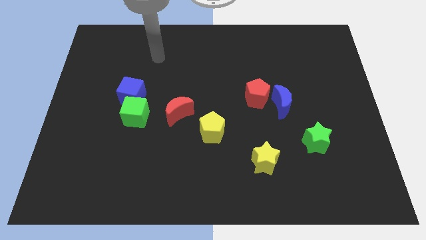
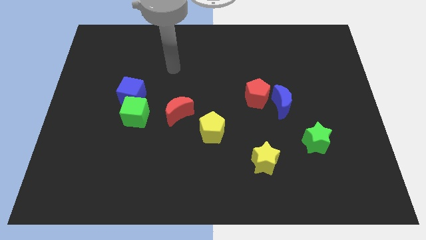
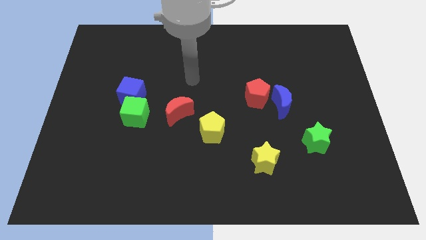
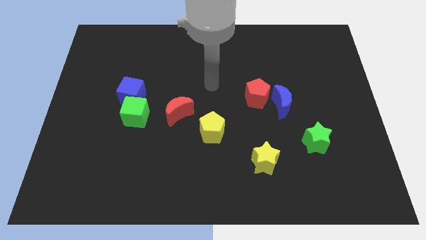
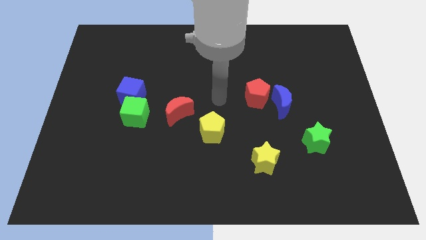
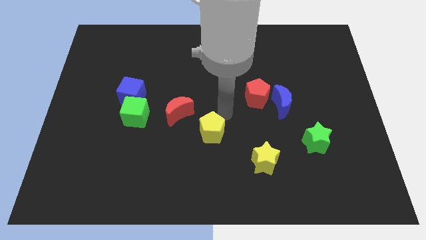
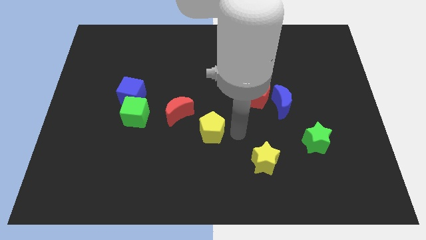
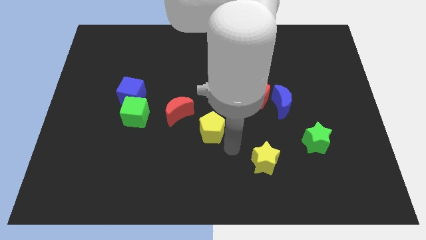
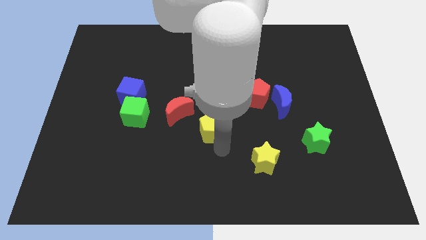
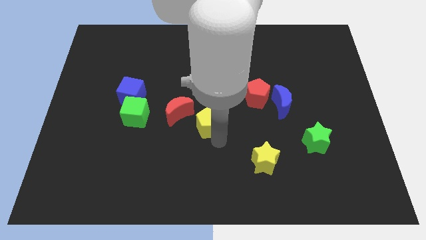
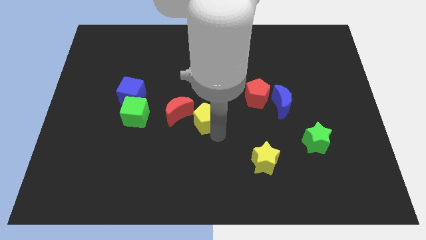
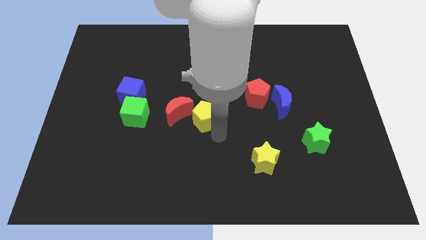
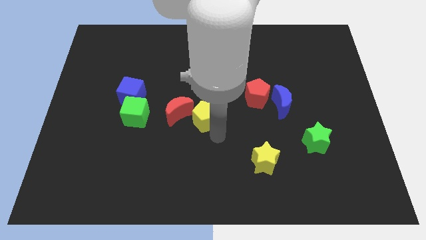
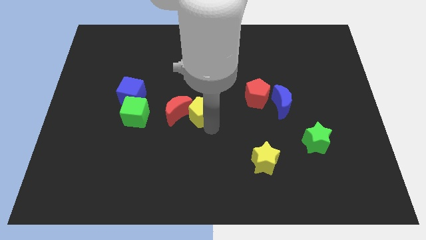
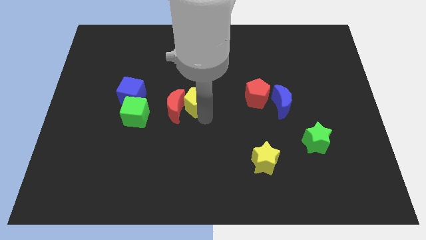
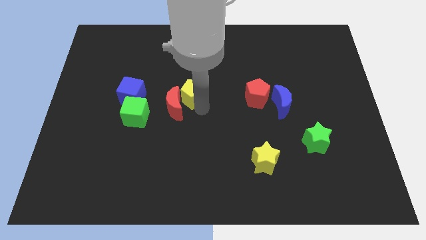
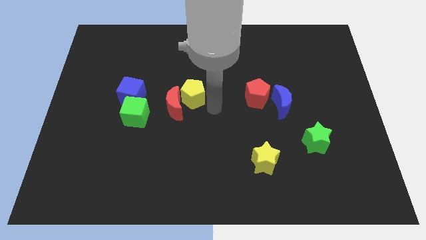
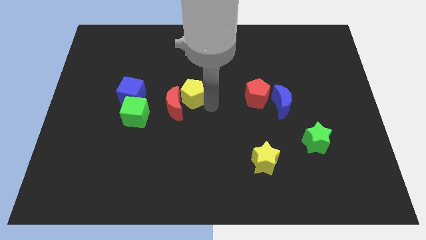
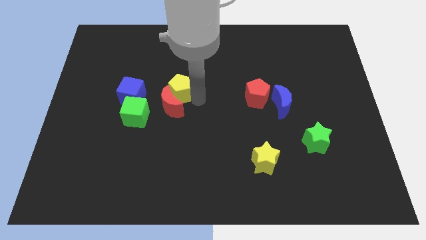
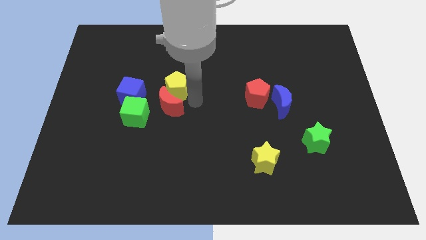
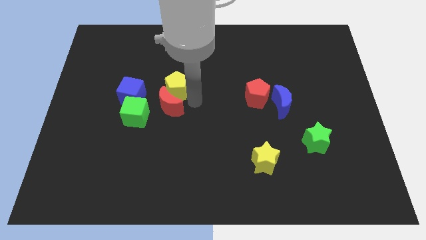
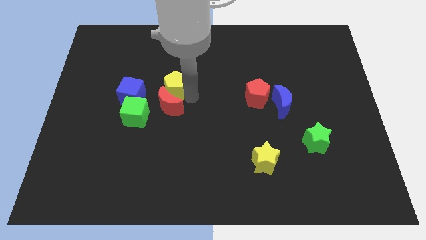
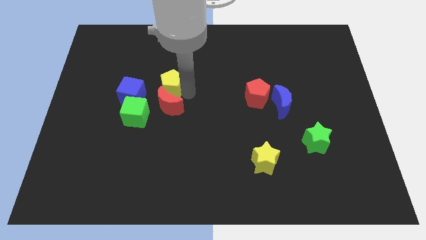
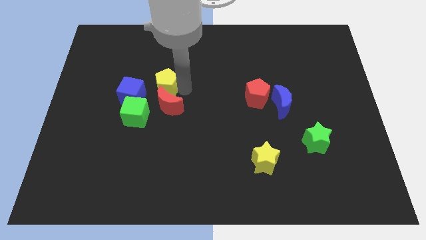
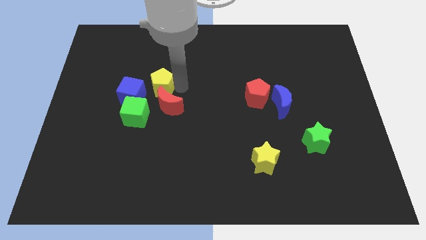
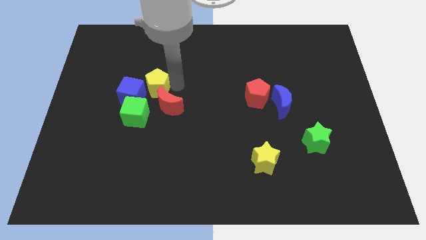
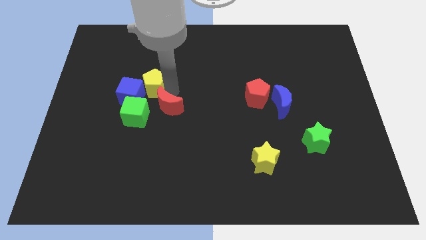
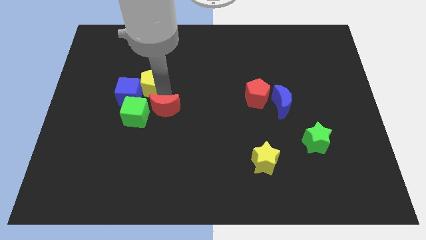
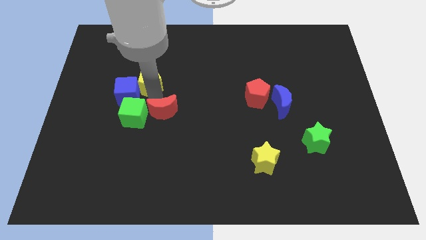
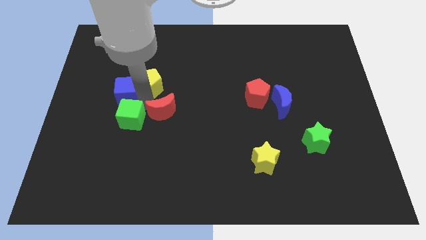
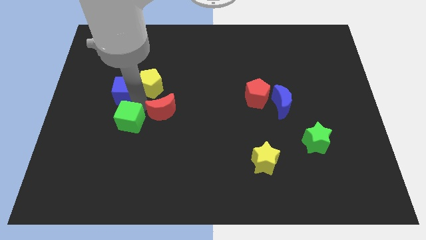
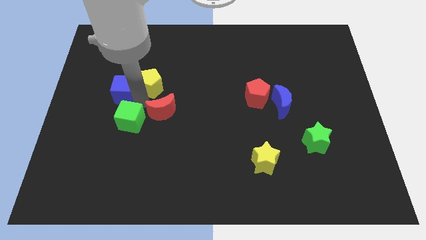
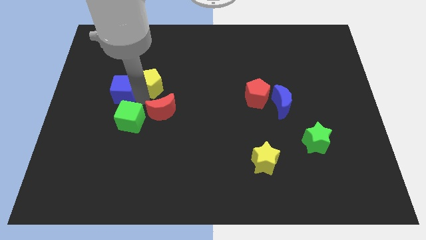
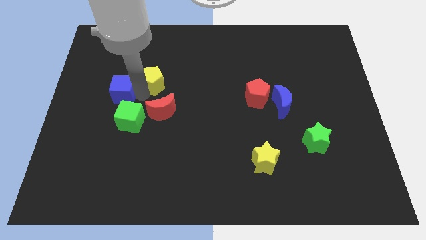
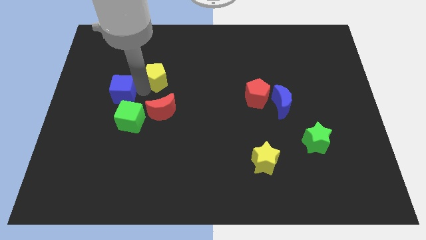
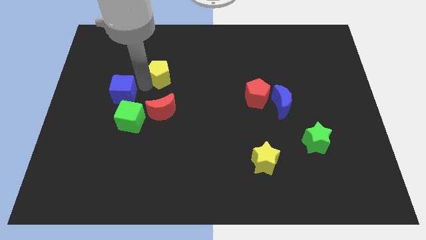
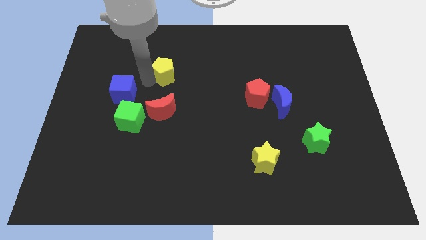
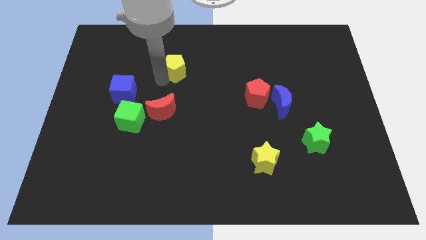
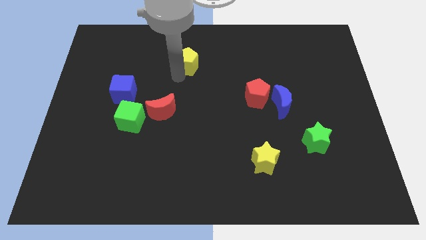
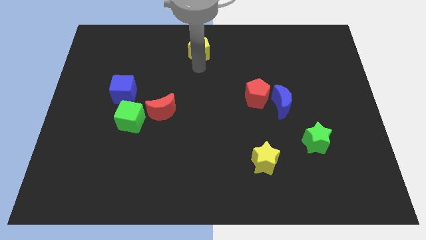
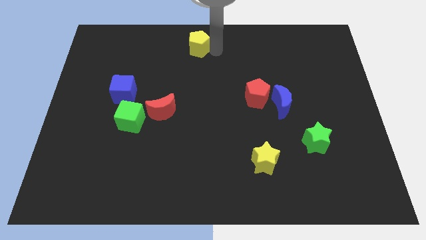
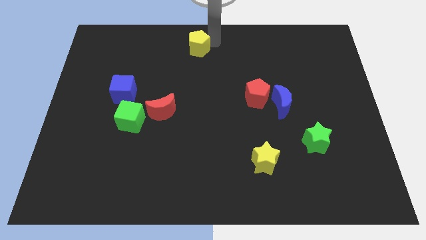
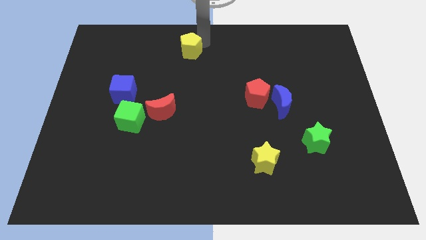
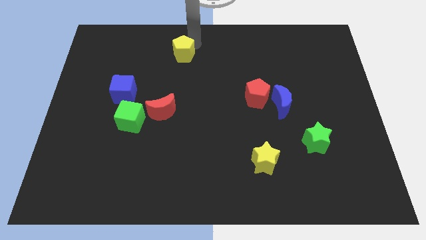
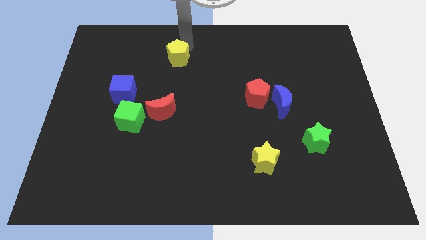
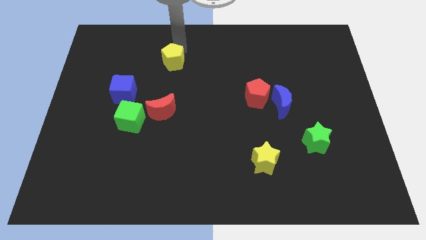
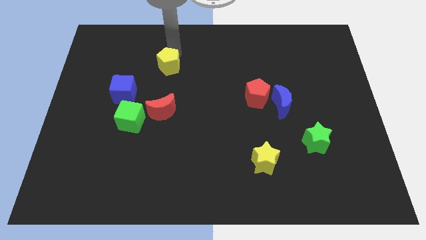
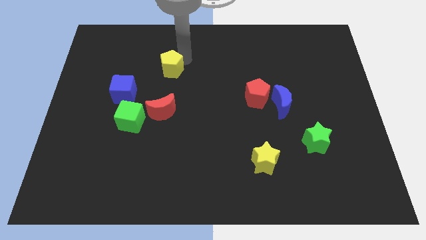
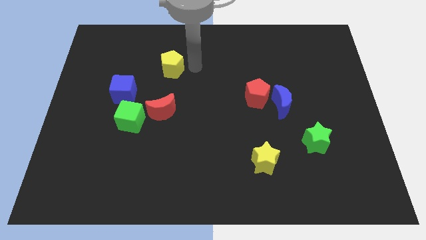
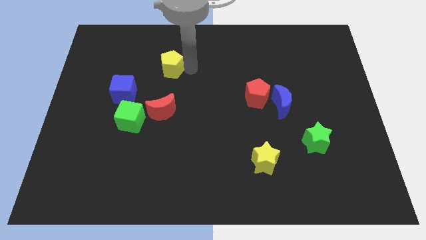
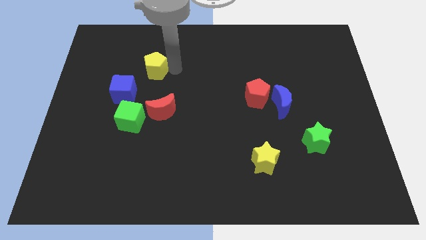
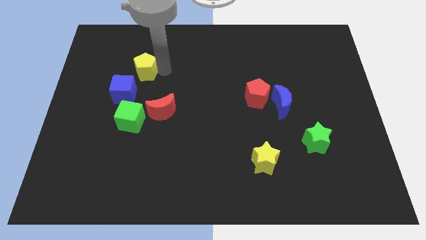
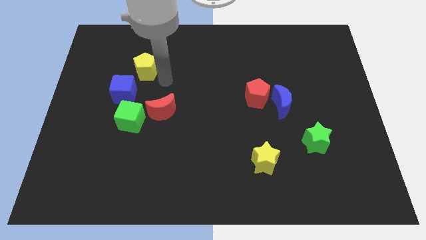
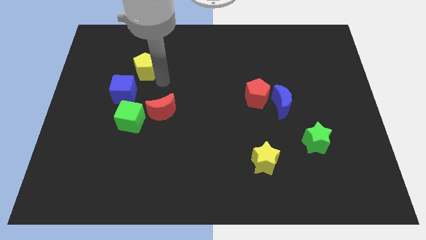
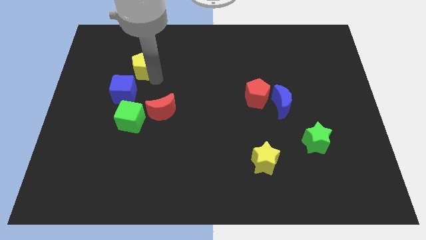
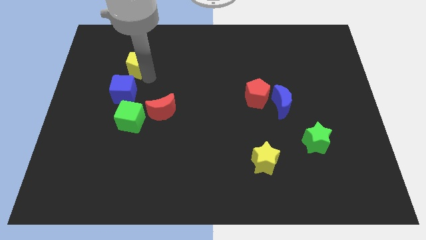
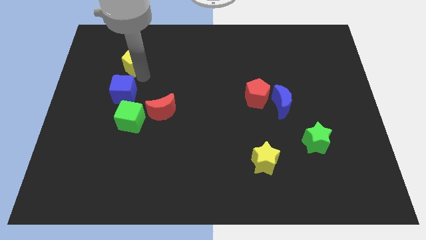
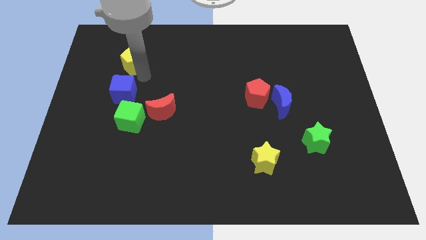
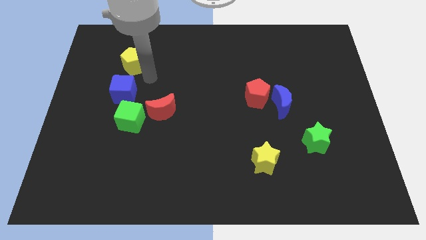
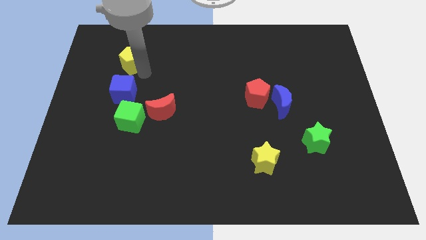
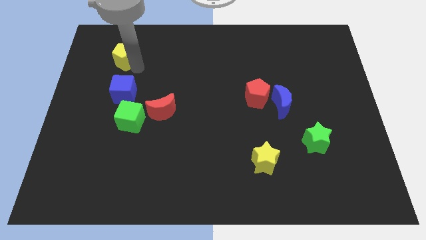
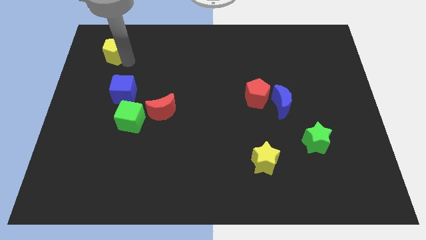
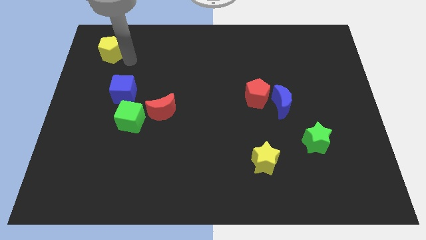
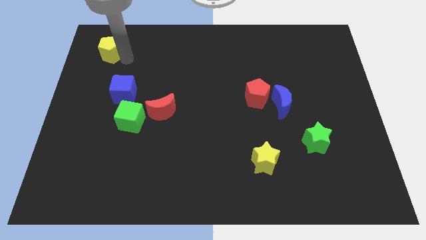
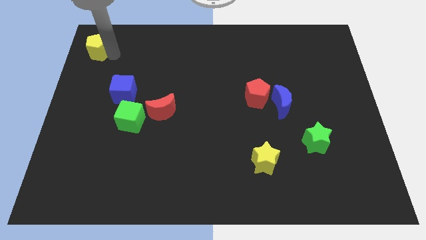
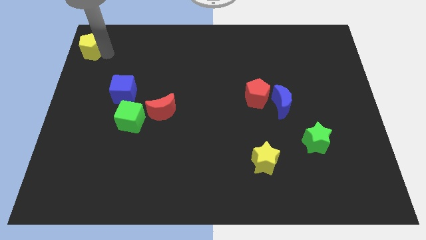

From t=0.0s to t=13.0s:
slide the yellow pentagon to the top left of the board
